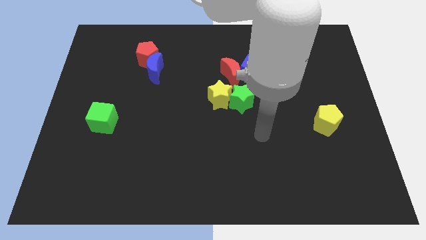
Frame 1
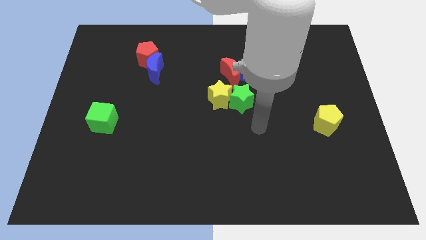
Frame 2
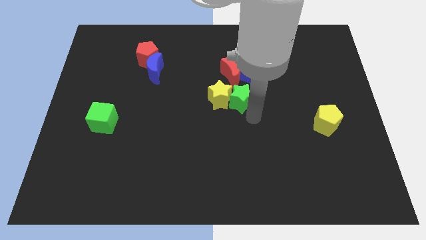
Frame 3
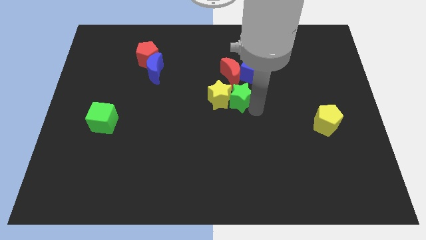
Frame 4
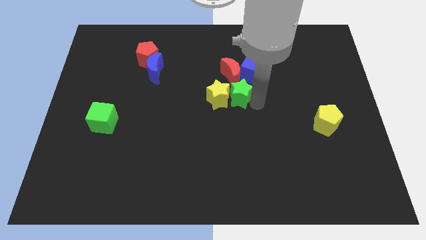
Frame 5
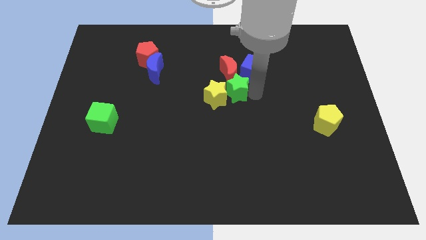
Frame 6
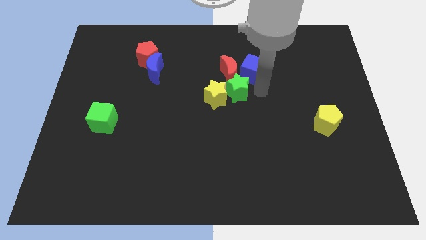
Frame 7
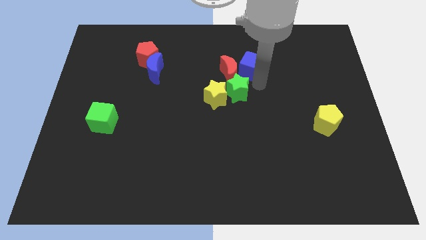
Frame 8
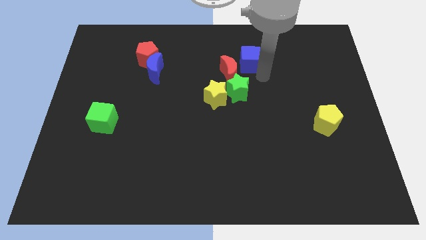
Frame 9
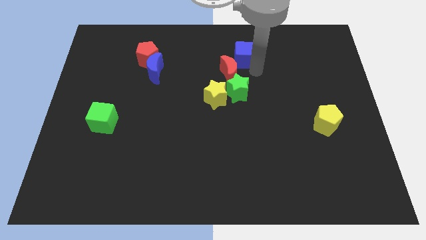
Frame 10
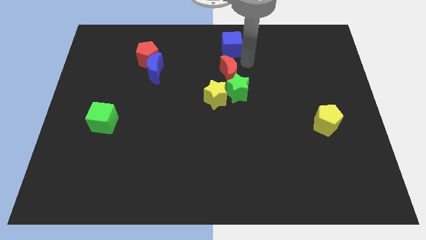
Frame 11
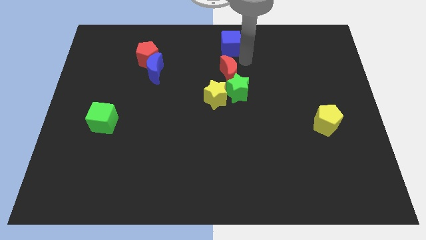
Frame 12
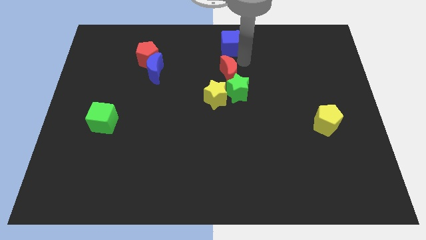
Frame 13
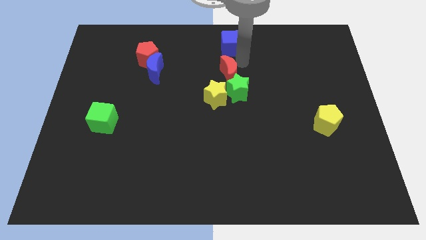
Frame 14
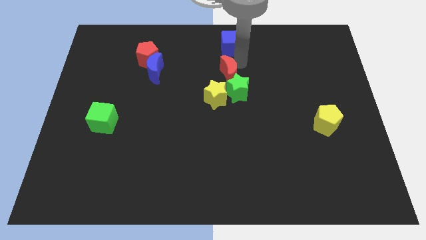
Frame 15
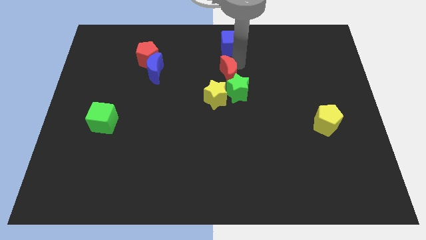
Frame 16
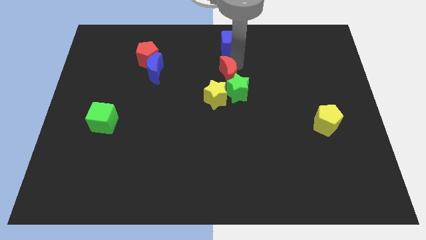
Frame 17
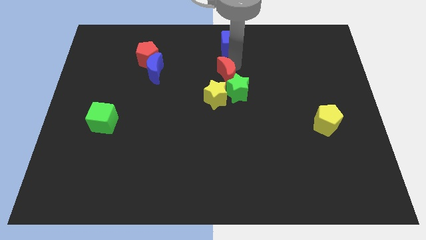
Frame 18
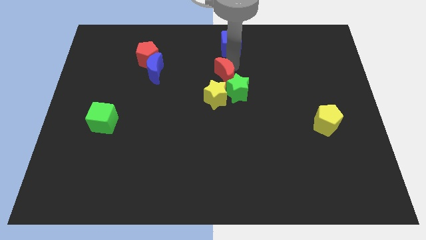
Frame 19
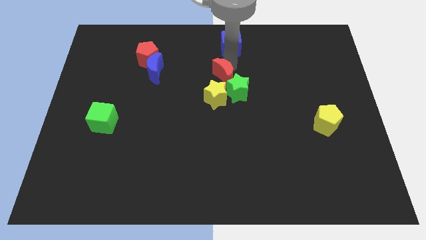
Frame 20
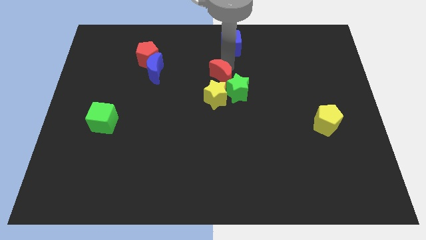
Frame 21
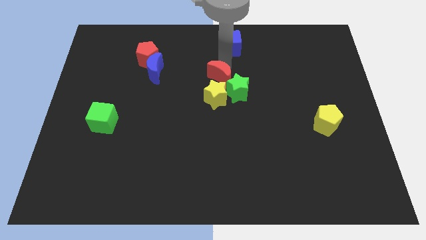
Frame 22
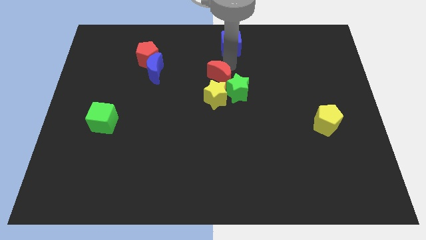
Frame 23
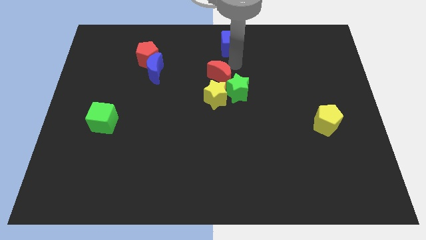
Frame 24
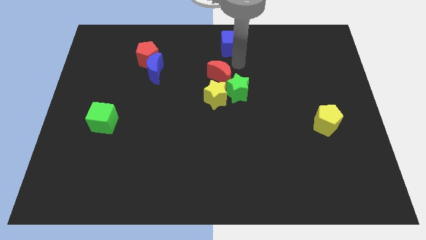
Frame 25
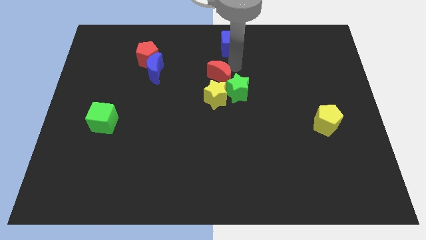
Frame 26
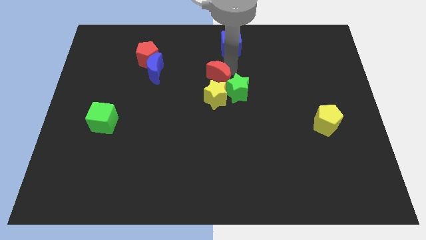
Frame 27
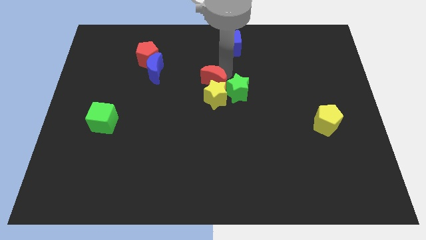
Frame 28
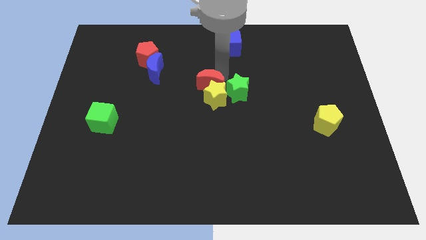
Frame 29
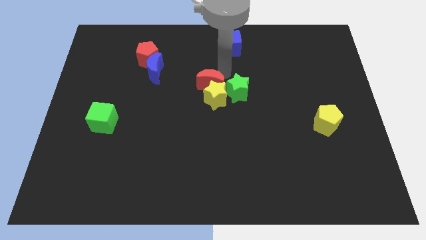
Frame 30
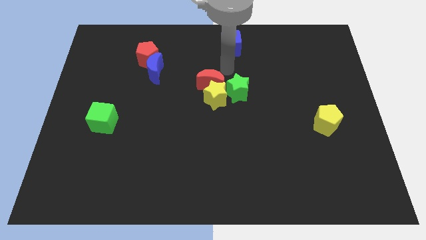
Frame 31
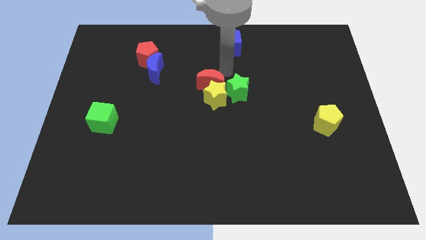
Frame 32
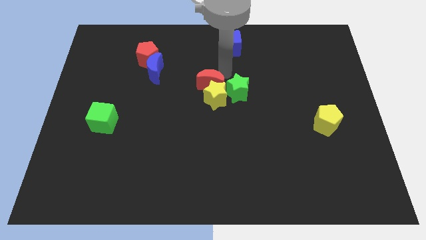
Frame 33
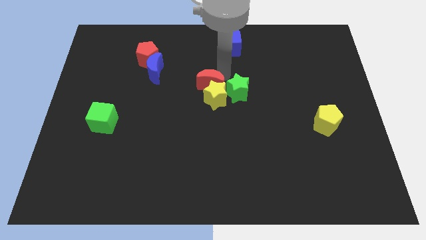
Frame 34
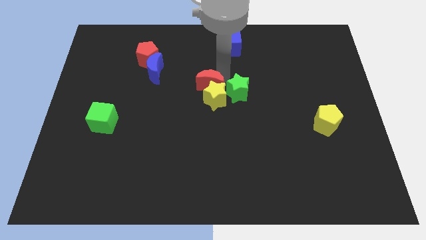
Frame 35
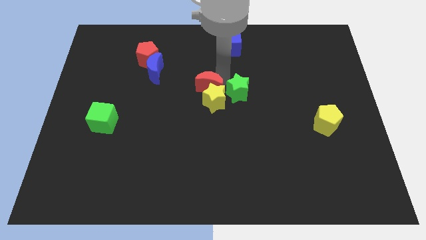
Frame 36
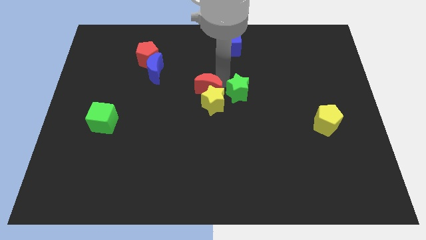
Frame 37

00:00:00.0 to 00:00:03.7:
slightly push the red moon downwards and left

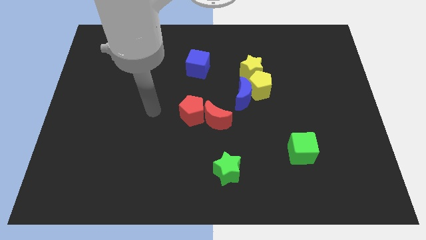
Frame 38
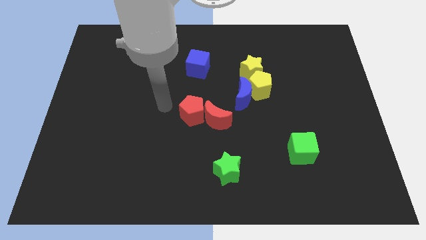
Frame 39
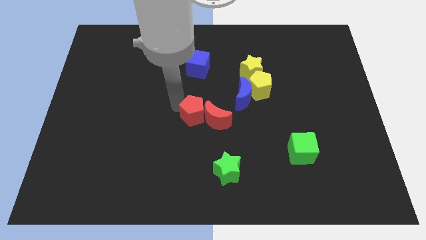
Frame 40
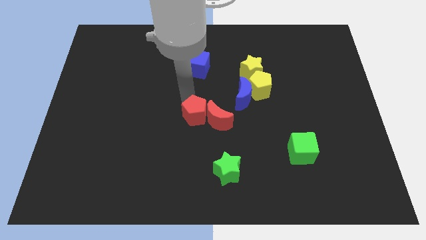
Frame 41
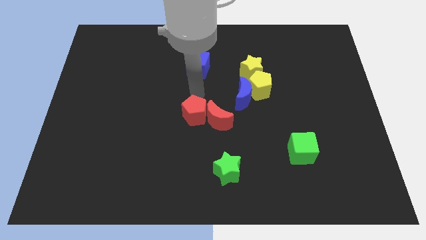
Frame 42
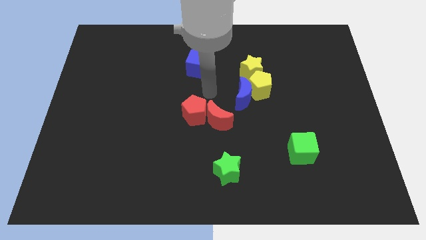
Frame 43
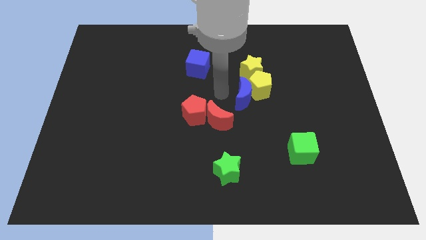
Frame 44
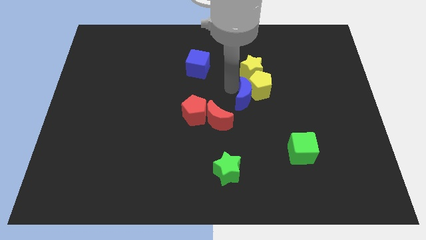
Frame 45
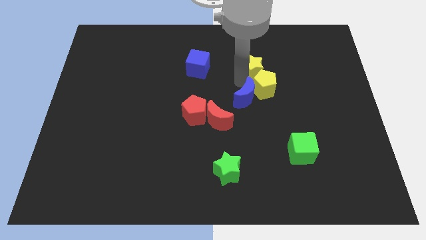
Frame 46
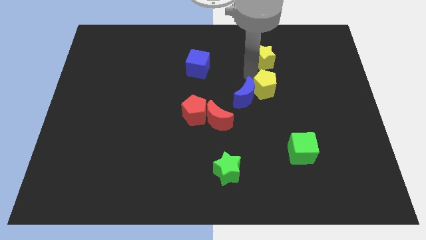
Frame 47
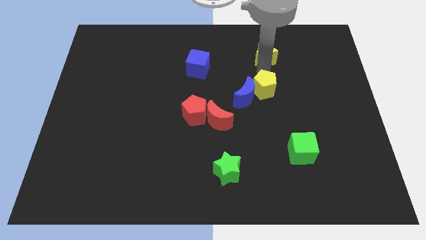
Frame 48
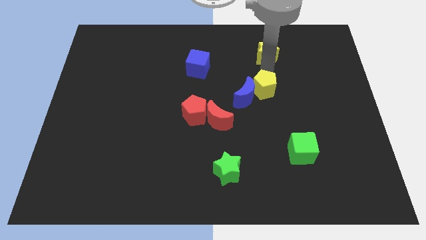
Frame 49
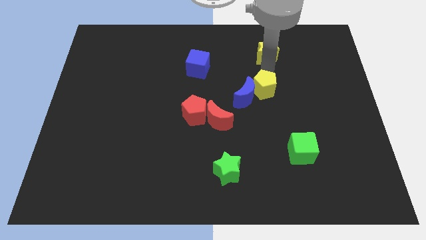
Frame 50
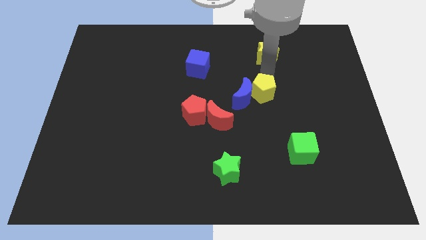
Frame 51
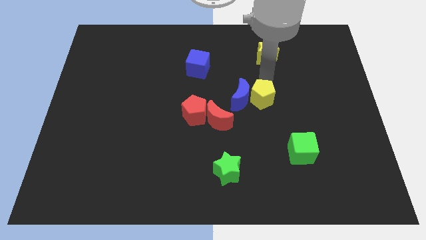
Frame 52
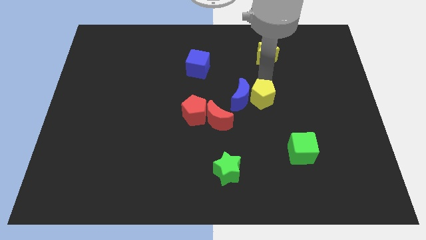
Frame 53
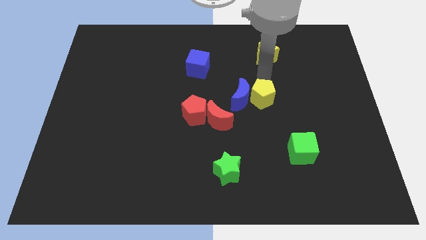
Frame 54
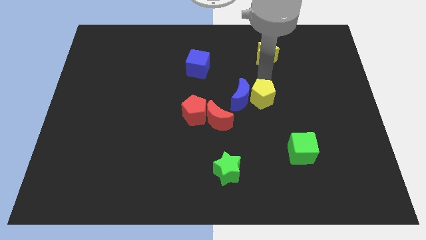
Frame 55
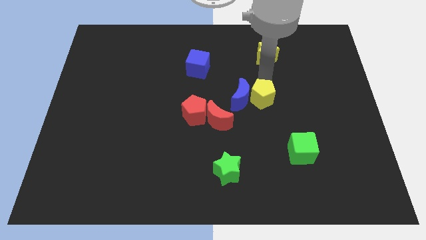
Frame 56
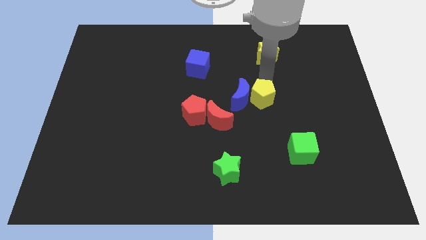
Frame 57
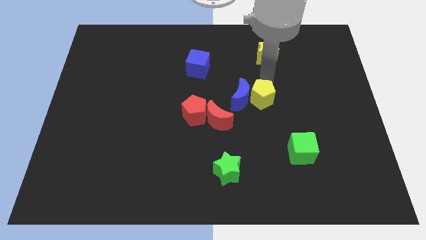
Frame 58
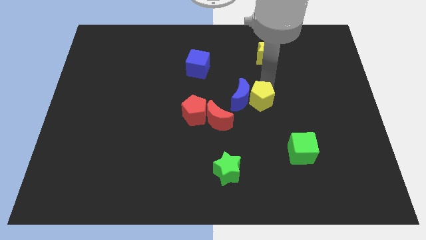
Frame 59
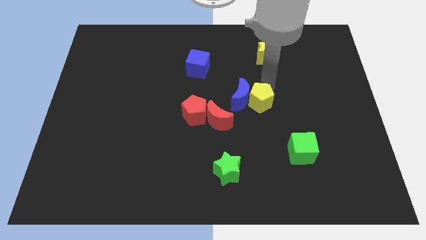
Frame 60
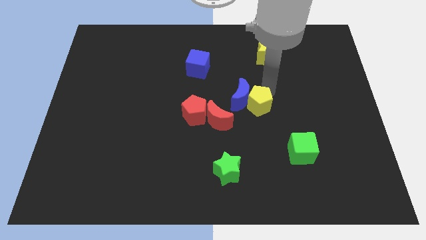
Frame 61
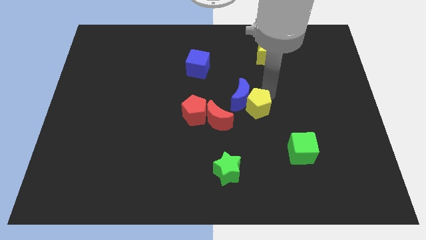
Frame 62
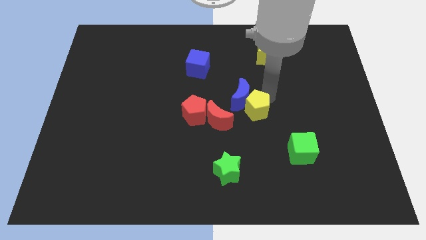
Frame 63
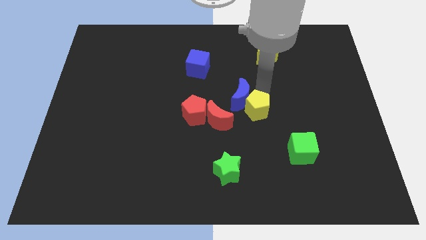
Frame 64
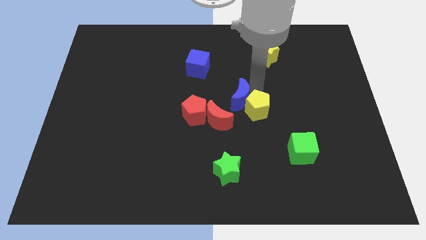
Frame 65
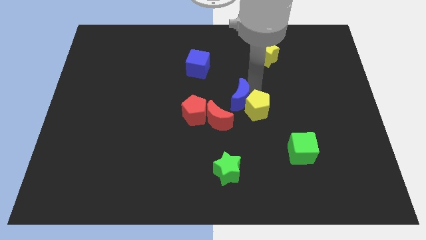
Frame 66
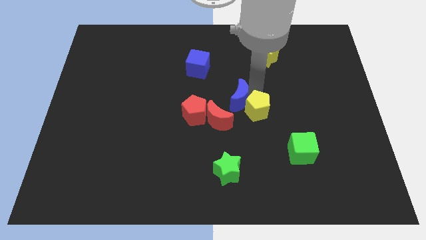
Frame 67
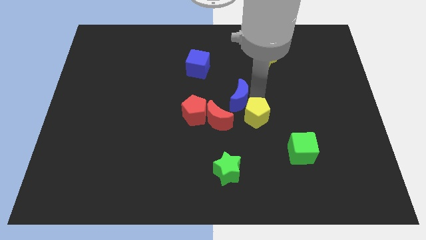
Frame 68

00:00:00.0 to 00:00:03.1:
slightly slide the yellow pentagon downwards

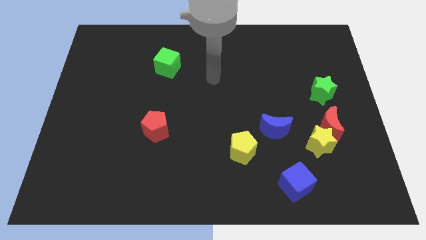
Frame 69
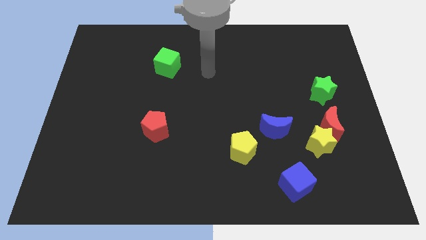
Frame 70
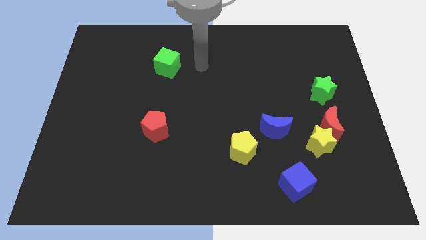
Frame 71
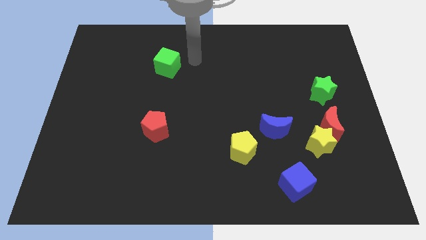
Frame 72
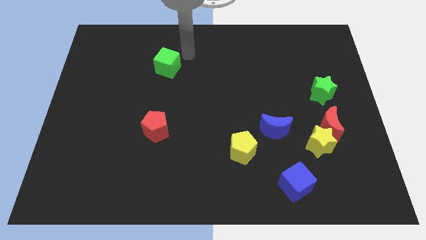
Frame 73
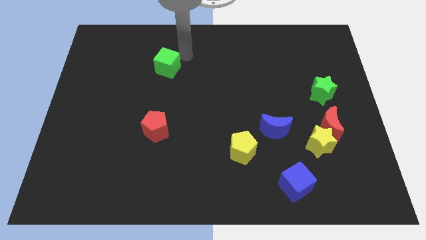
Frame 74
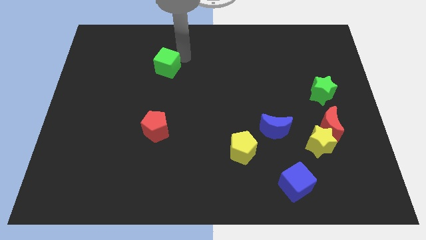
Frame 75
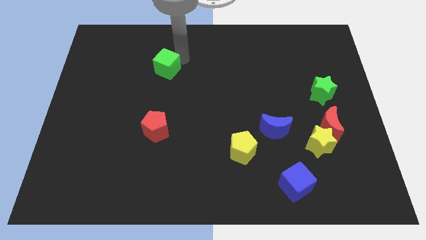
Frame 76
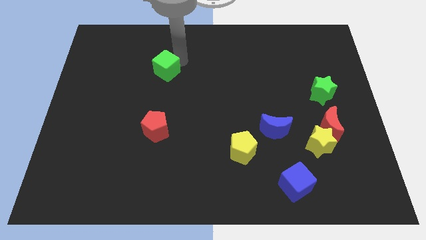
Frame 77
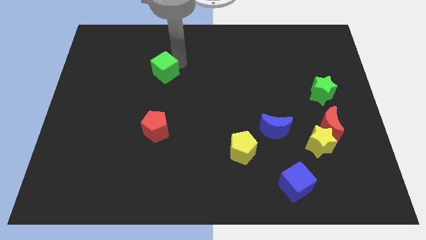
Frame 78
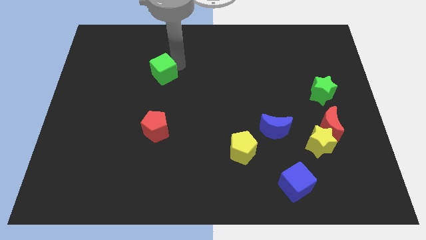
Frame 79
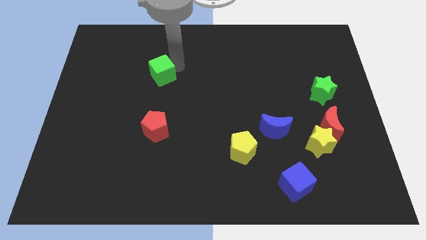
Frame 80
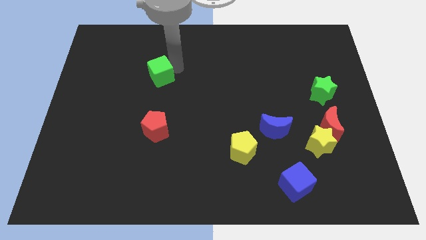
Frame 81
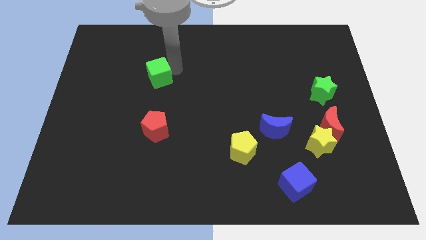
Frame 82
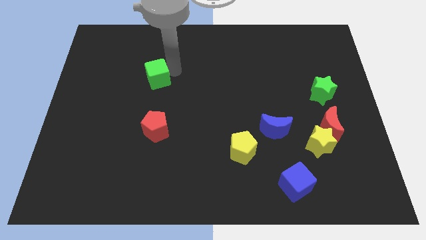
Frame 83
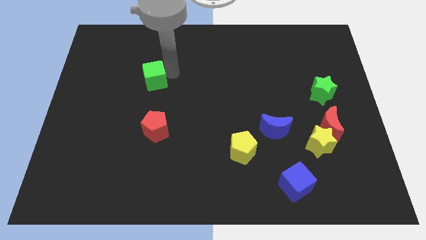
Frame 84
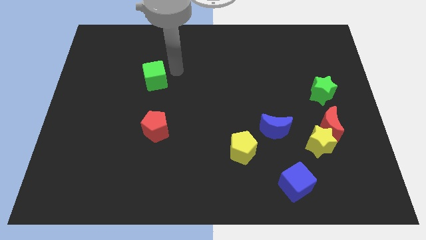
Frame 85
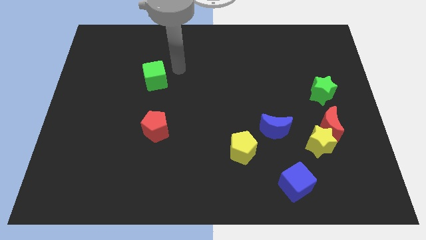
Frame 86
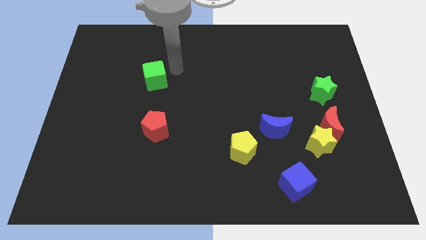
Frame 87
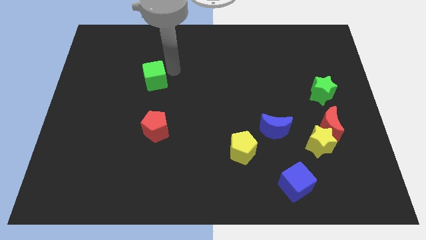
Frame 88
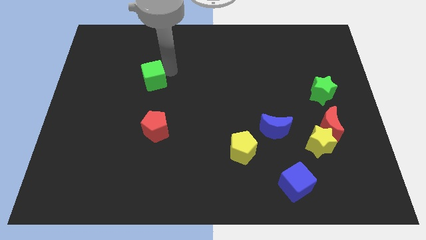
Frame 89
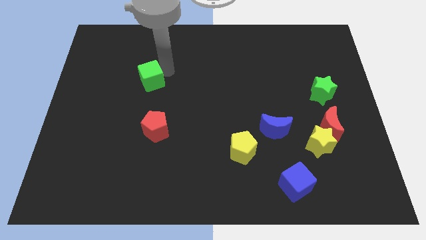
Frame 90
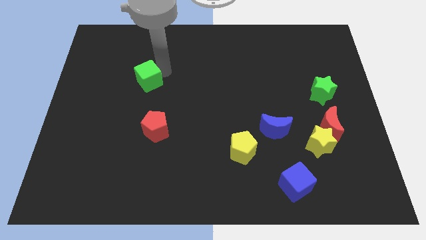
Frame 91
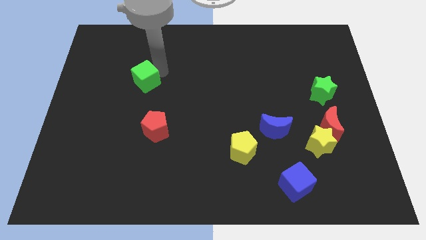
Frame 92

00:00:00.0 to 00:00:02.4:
slightly push the green cube downwards and left
